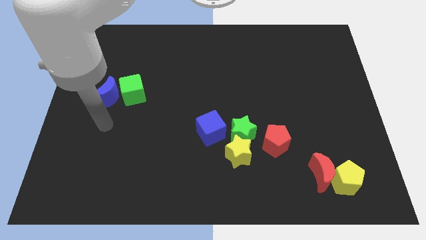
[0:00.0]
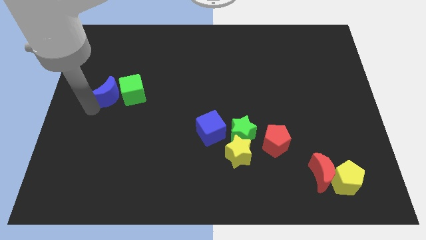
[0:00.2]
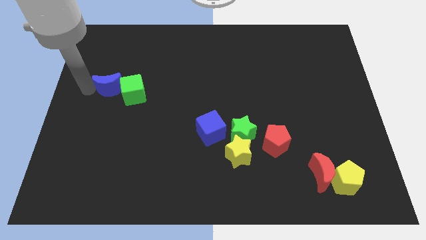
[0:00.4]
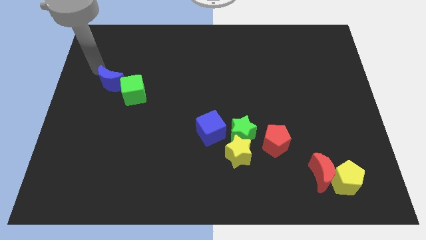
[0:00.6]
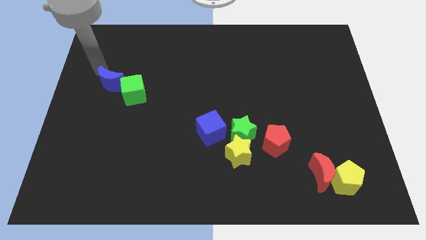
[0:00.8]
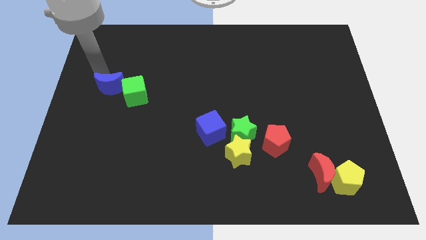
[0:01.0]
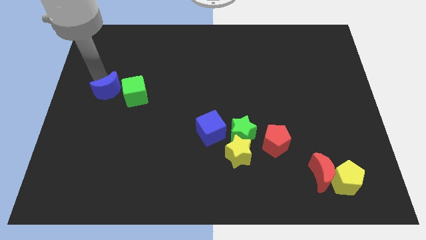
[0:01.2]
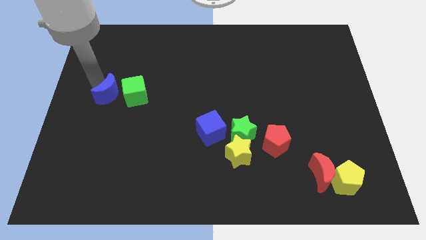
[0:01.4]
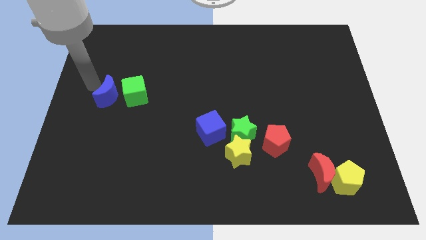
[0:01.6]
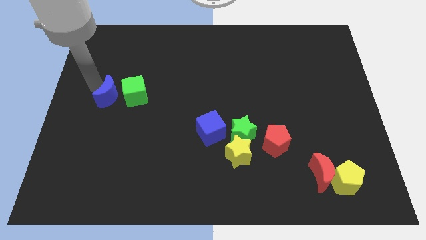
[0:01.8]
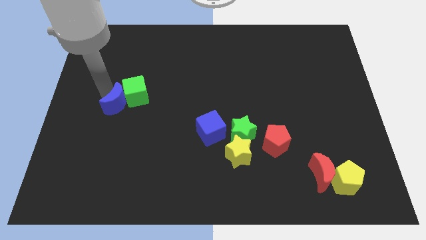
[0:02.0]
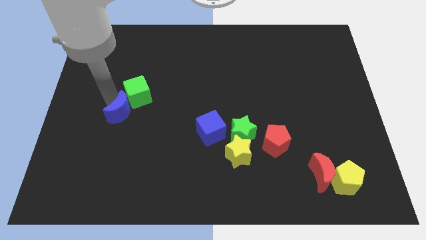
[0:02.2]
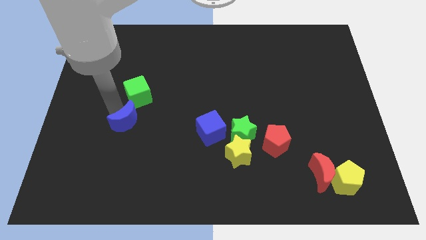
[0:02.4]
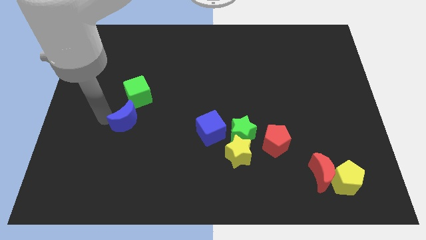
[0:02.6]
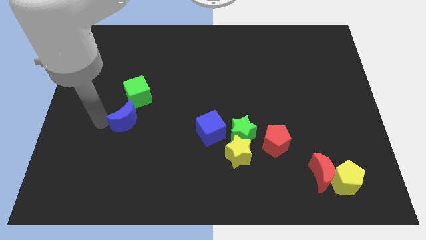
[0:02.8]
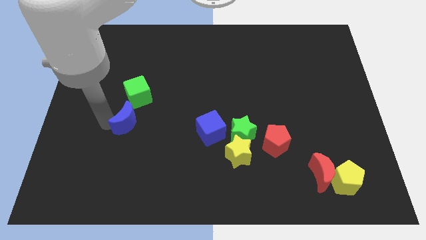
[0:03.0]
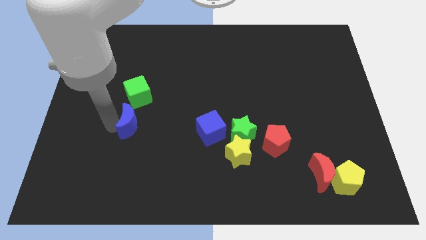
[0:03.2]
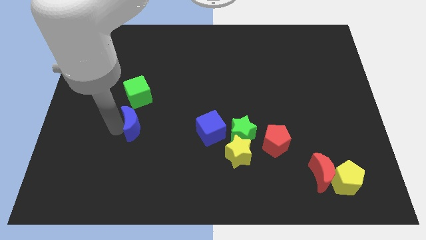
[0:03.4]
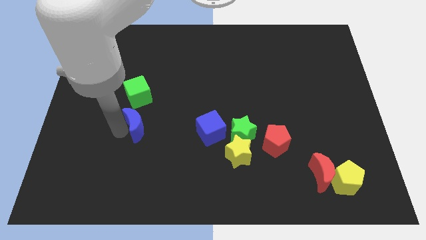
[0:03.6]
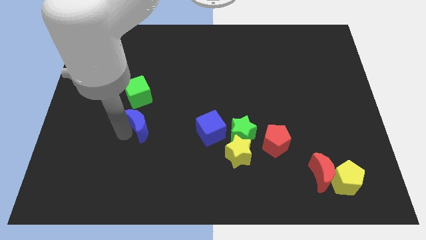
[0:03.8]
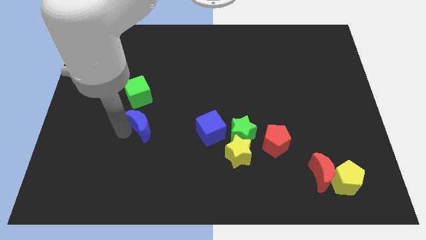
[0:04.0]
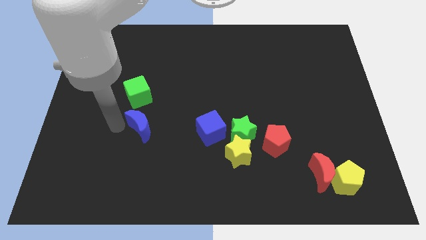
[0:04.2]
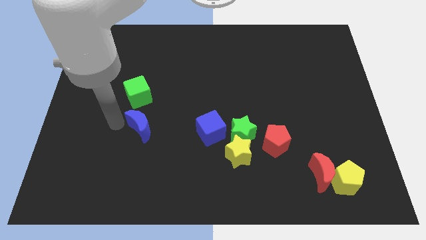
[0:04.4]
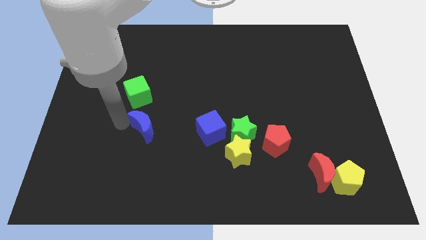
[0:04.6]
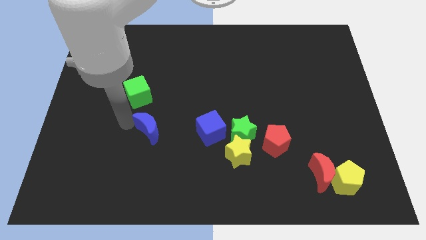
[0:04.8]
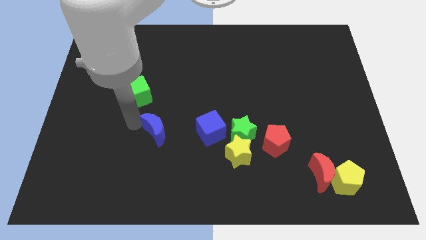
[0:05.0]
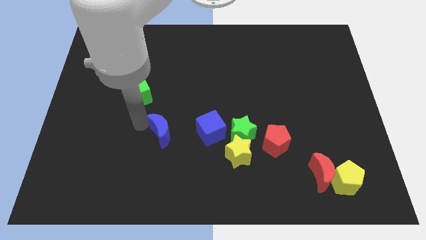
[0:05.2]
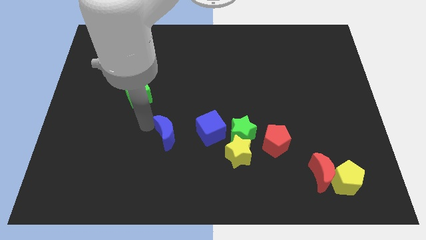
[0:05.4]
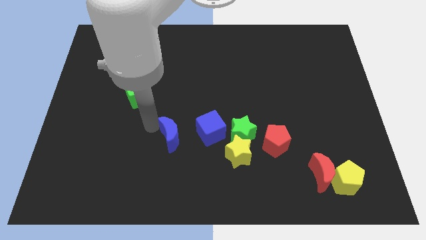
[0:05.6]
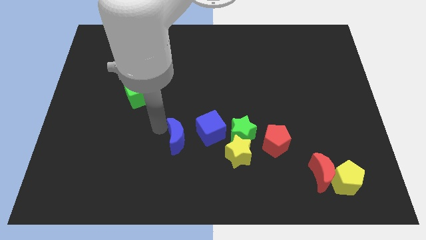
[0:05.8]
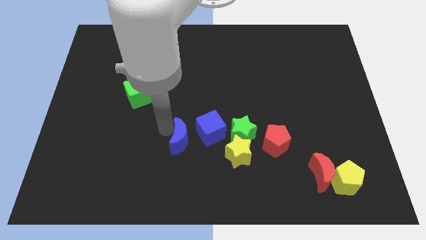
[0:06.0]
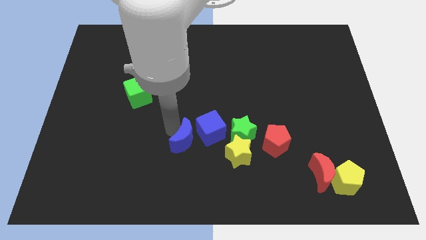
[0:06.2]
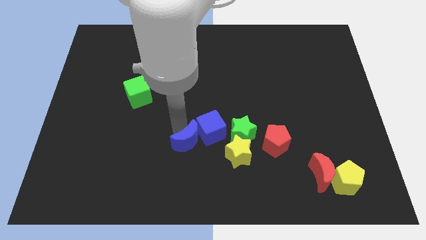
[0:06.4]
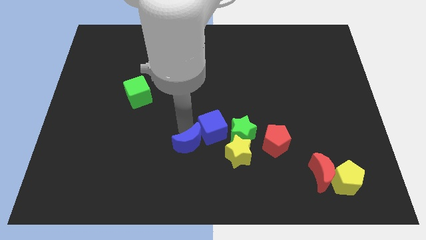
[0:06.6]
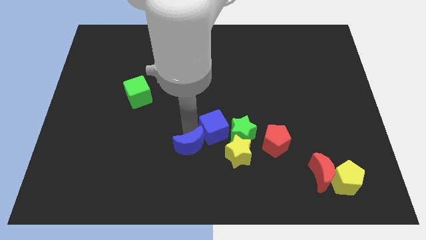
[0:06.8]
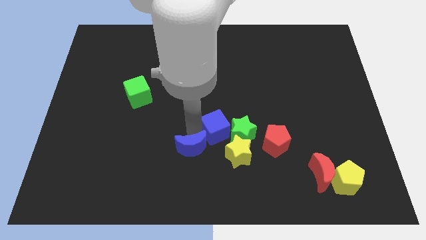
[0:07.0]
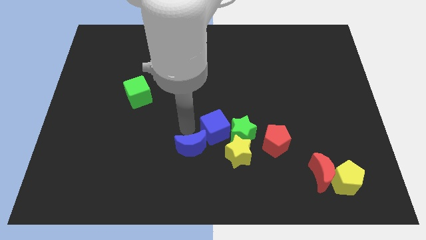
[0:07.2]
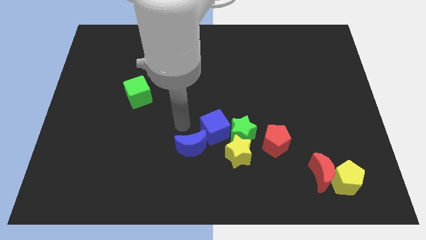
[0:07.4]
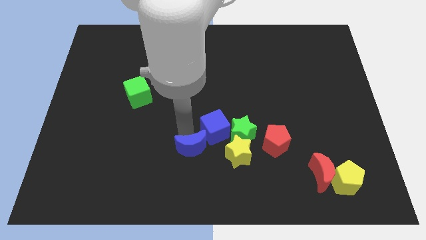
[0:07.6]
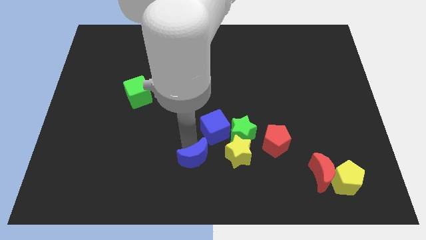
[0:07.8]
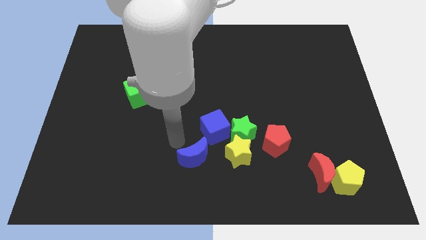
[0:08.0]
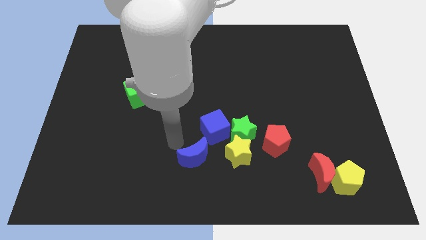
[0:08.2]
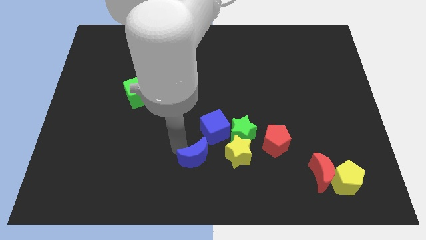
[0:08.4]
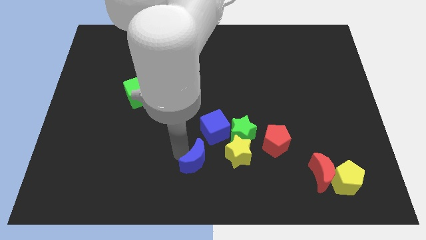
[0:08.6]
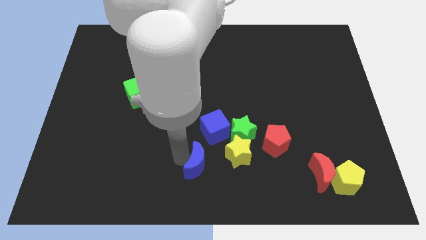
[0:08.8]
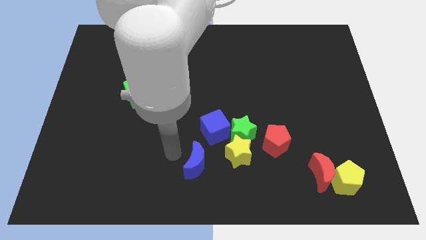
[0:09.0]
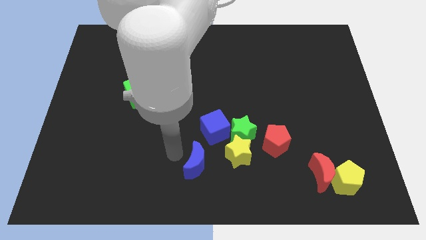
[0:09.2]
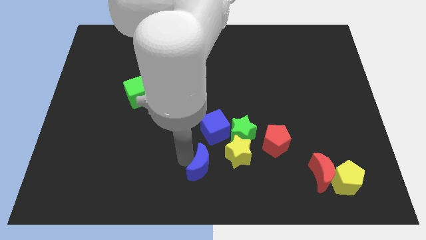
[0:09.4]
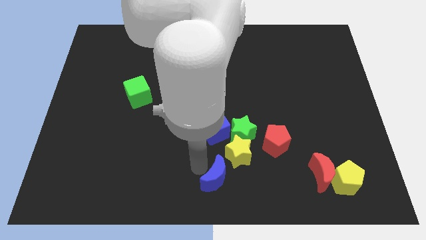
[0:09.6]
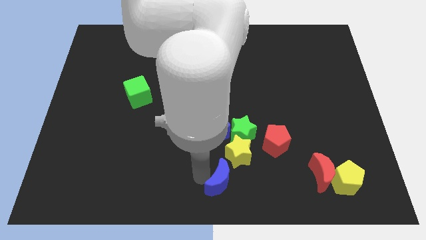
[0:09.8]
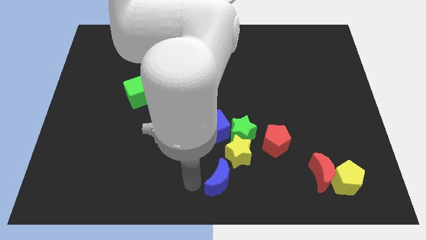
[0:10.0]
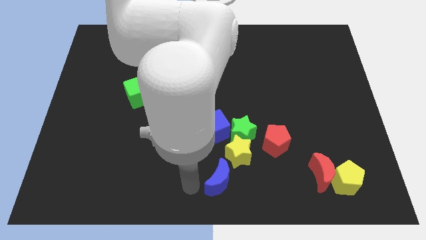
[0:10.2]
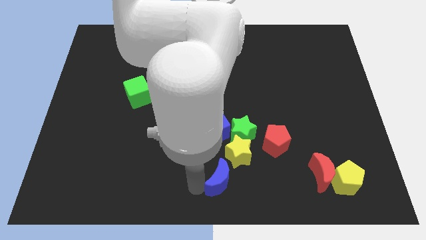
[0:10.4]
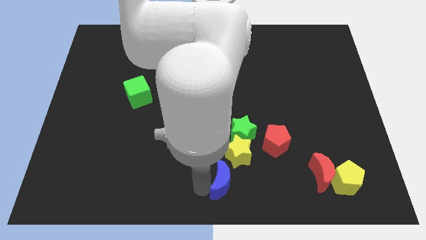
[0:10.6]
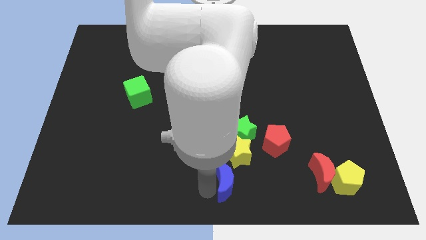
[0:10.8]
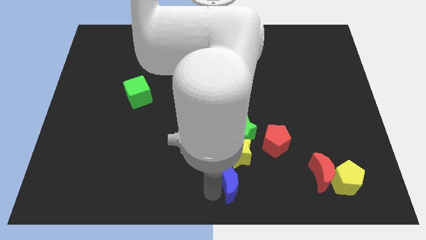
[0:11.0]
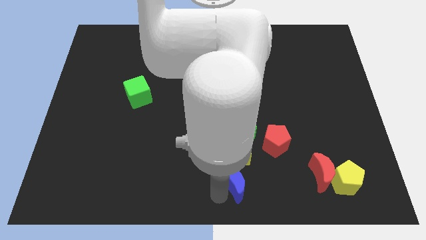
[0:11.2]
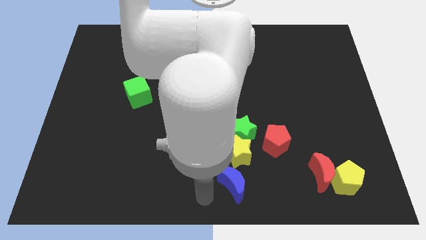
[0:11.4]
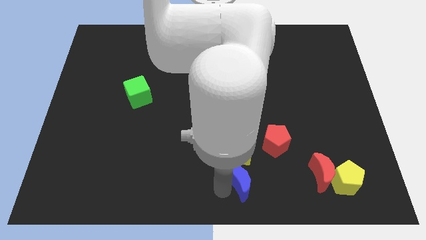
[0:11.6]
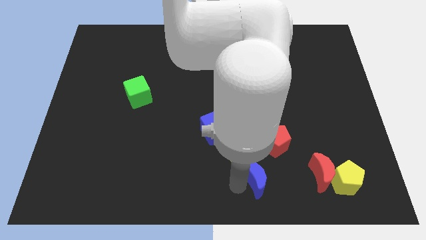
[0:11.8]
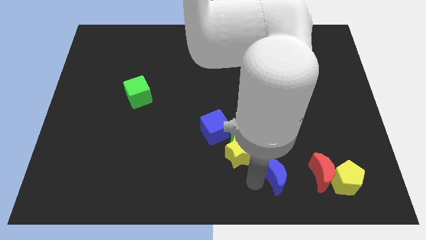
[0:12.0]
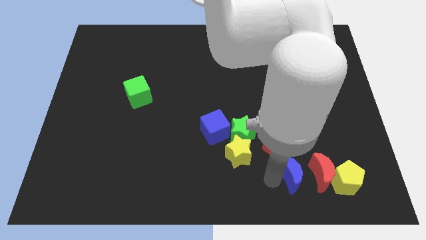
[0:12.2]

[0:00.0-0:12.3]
move the blue moon to the bottom right of the red pentagon

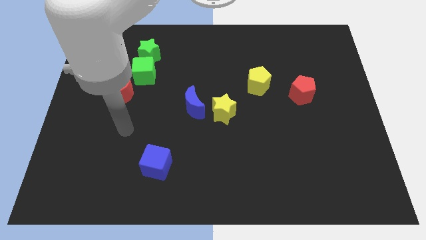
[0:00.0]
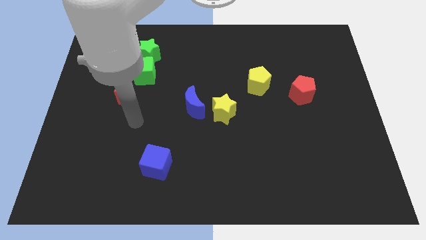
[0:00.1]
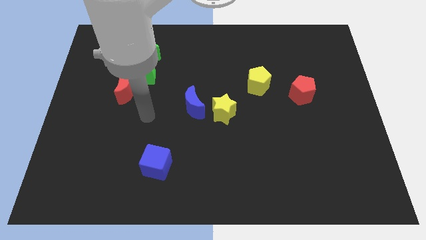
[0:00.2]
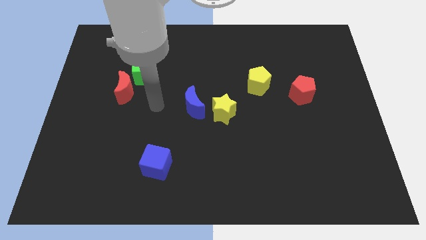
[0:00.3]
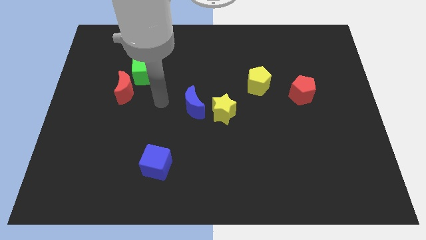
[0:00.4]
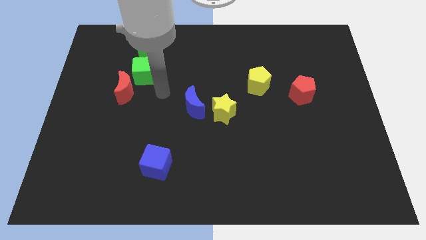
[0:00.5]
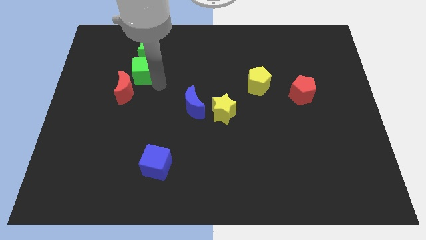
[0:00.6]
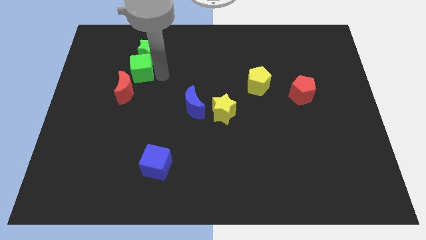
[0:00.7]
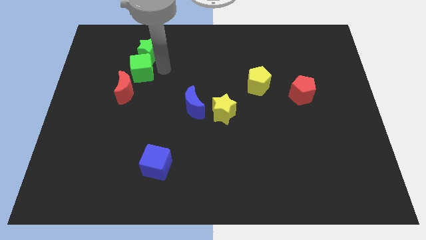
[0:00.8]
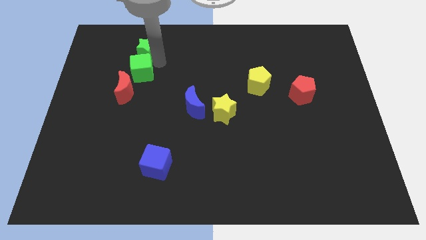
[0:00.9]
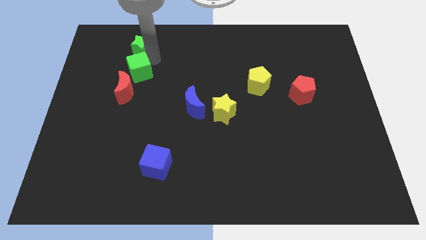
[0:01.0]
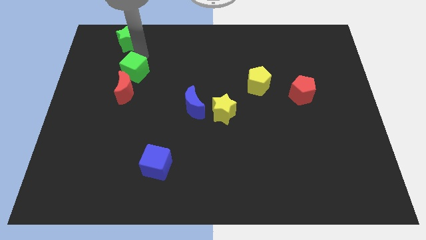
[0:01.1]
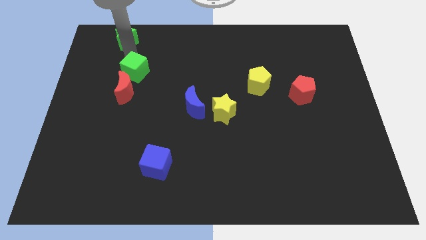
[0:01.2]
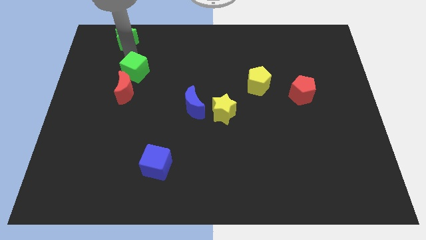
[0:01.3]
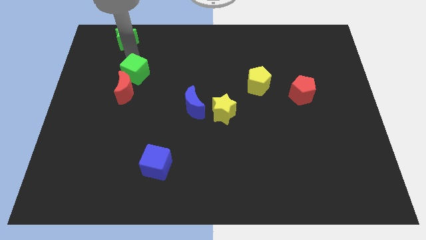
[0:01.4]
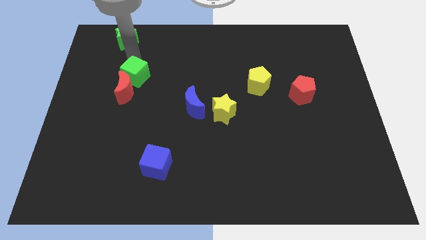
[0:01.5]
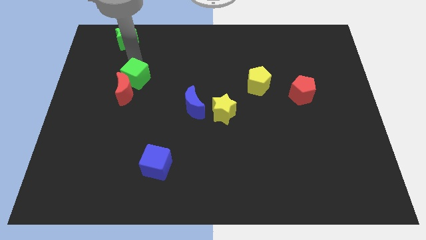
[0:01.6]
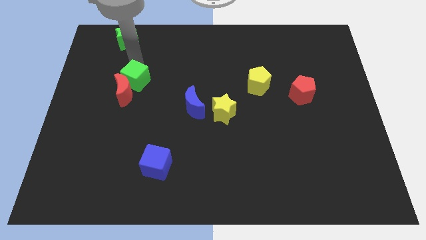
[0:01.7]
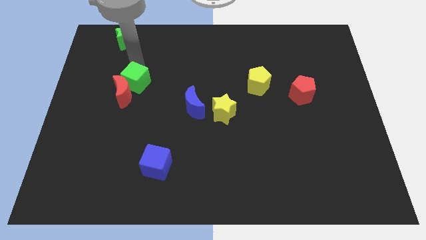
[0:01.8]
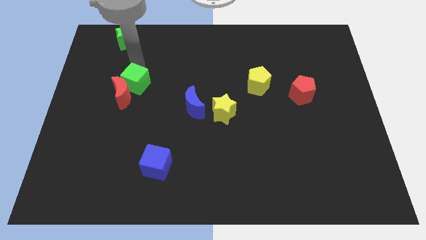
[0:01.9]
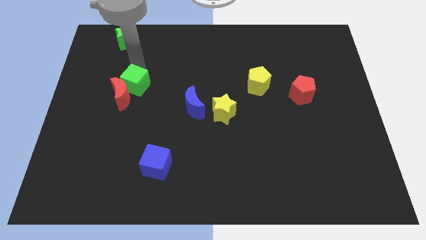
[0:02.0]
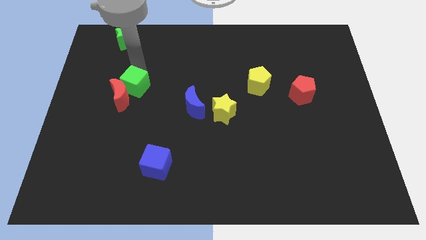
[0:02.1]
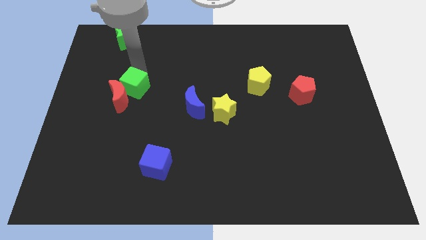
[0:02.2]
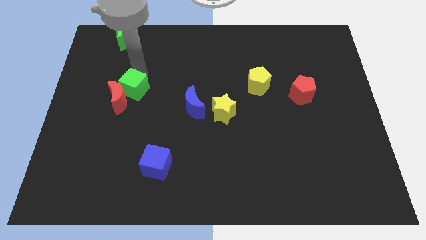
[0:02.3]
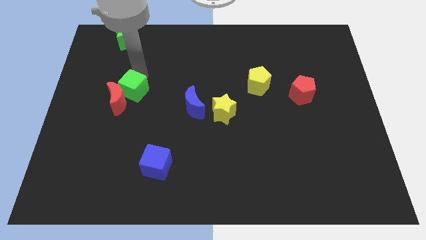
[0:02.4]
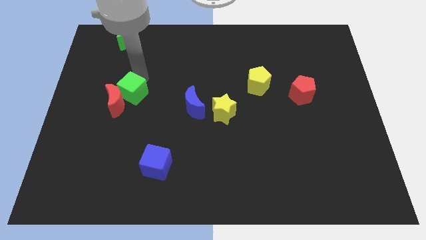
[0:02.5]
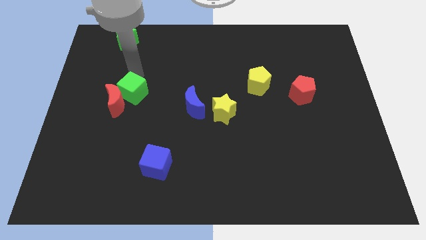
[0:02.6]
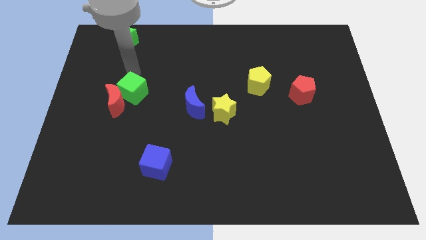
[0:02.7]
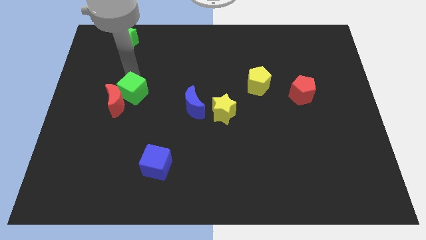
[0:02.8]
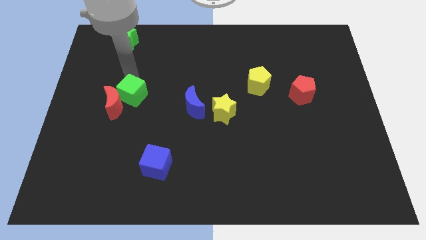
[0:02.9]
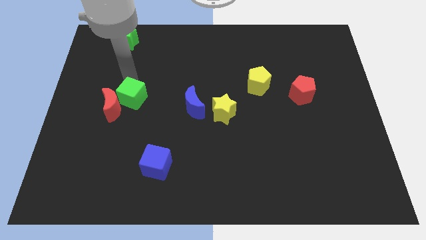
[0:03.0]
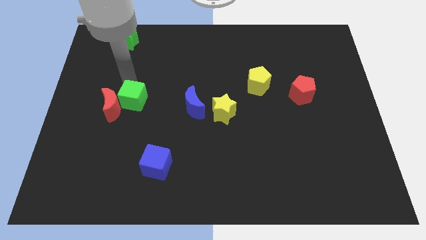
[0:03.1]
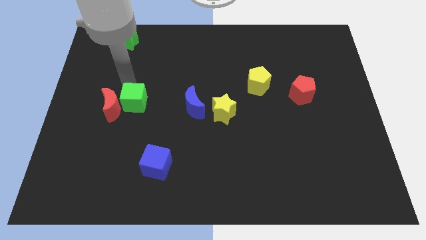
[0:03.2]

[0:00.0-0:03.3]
push the green cube diagonally down and to the right of the red moon
